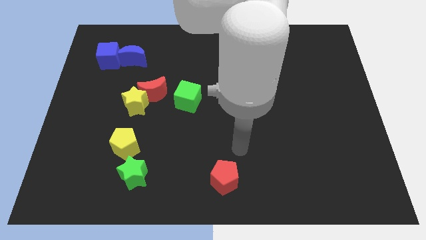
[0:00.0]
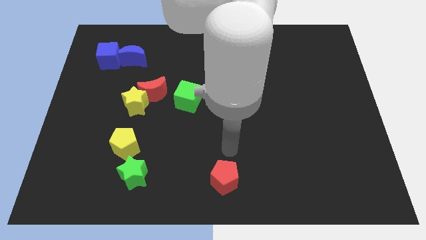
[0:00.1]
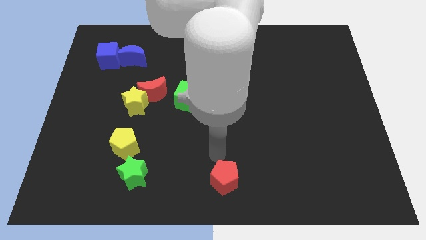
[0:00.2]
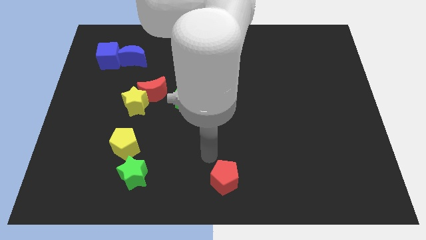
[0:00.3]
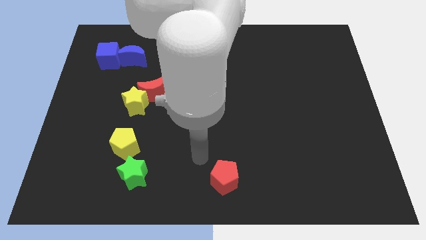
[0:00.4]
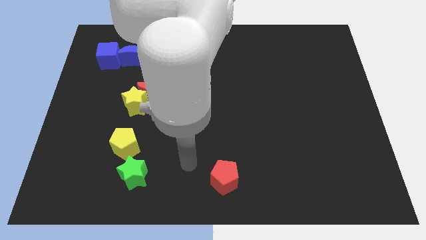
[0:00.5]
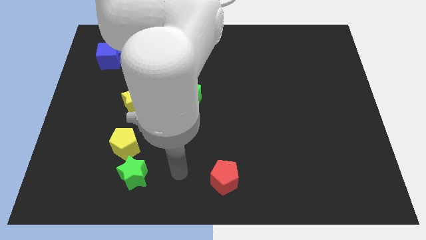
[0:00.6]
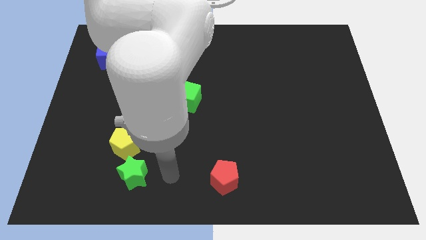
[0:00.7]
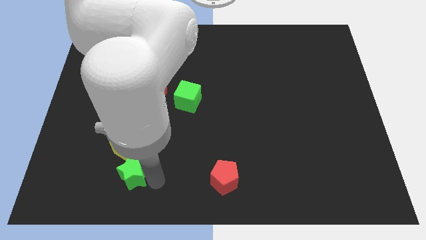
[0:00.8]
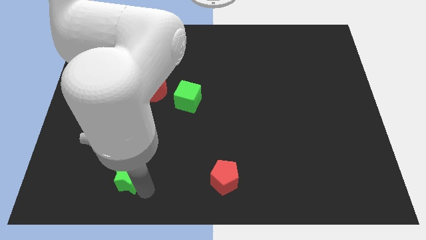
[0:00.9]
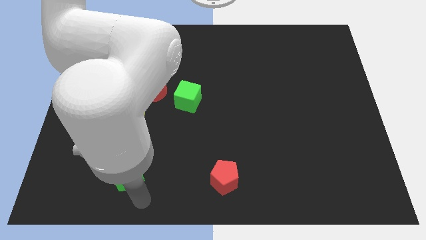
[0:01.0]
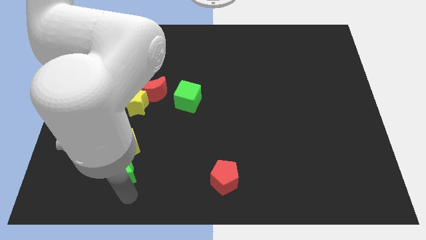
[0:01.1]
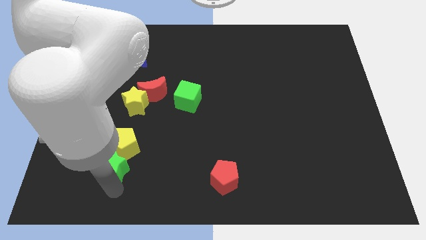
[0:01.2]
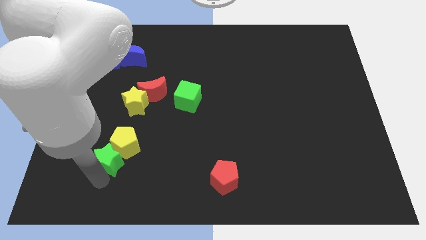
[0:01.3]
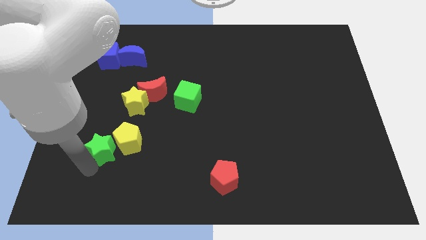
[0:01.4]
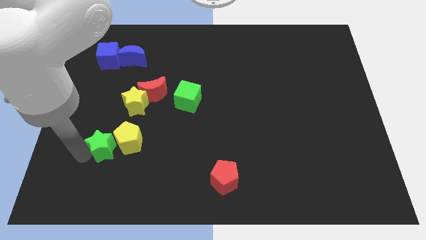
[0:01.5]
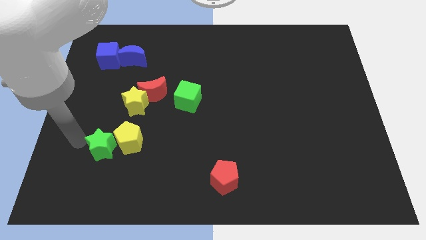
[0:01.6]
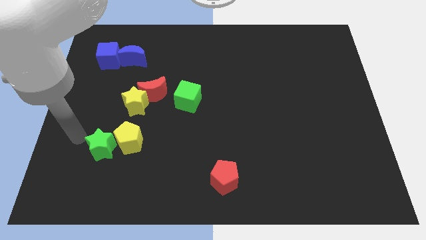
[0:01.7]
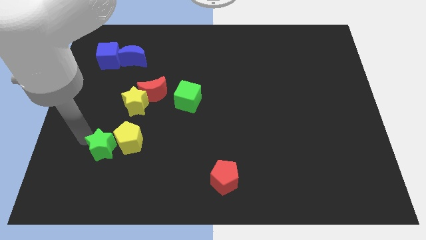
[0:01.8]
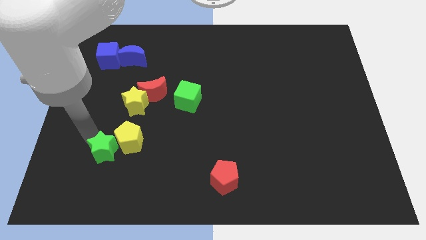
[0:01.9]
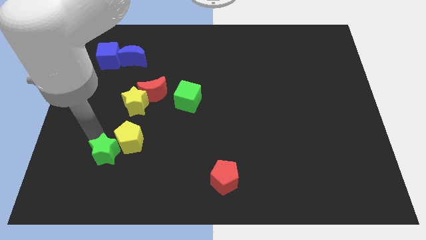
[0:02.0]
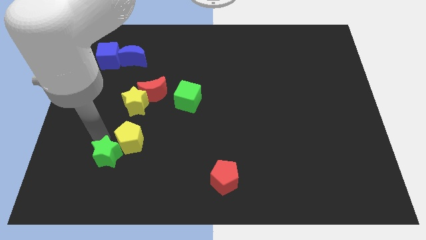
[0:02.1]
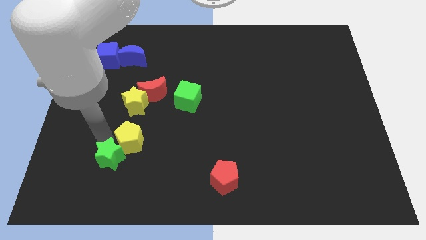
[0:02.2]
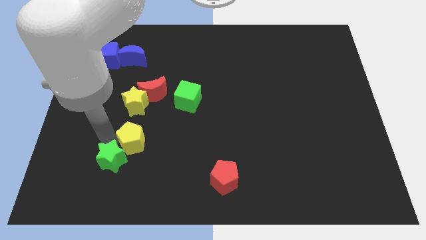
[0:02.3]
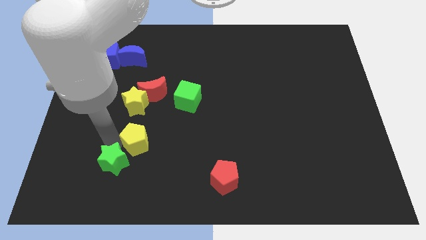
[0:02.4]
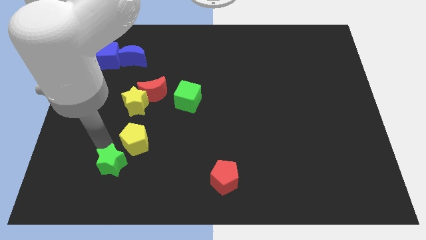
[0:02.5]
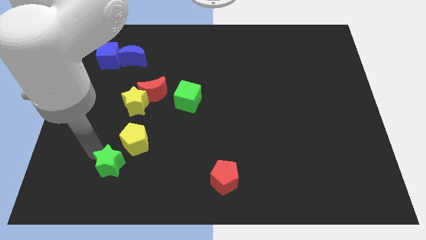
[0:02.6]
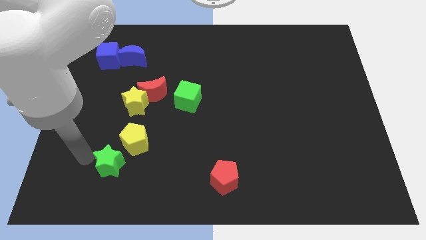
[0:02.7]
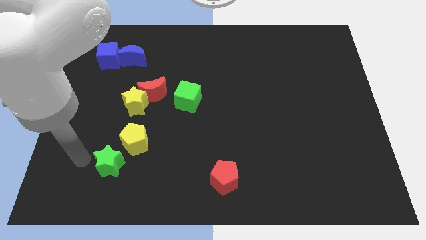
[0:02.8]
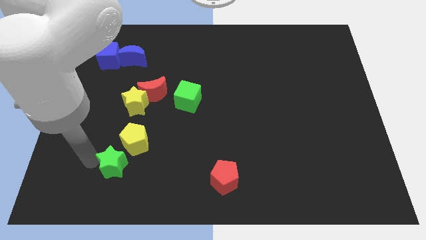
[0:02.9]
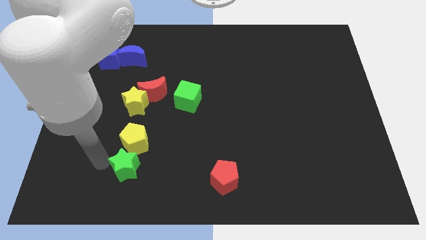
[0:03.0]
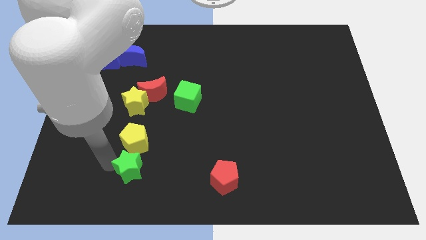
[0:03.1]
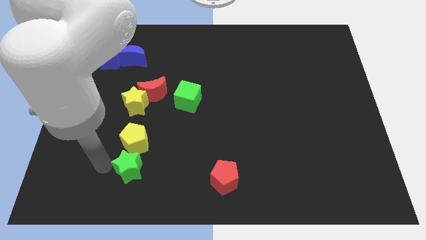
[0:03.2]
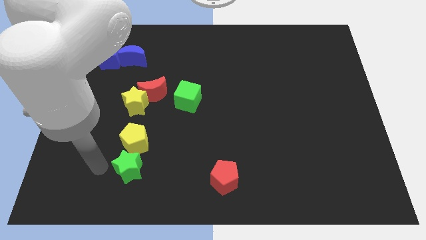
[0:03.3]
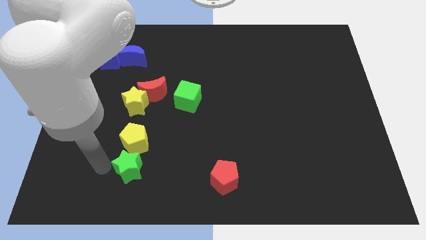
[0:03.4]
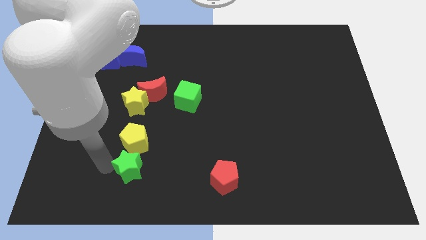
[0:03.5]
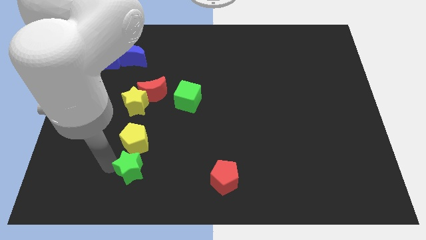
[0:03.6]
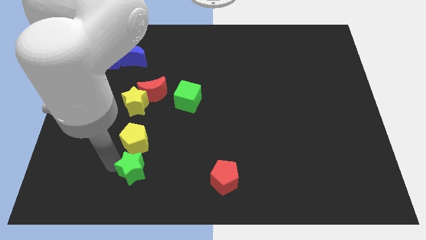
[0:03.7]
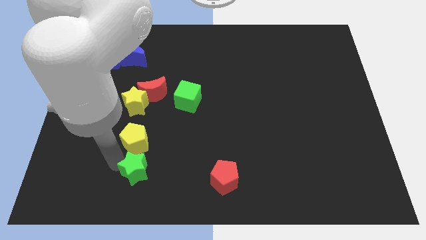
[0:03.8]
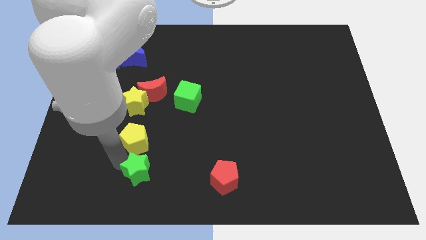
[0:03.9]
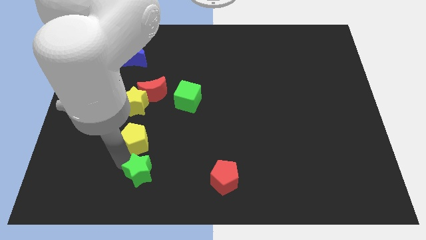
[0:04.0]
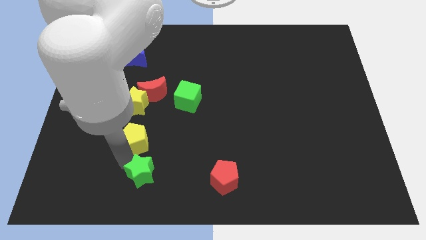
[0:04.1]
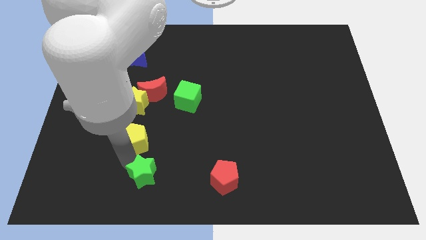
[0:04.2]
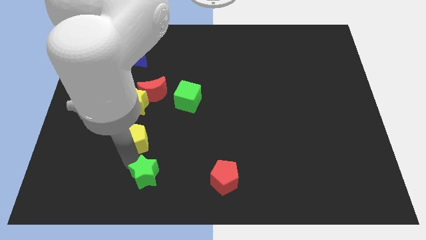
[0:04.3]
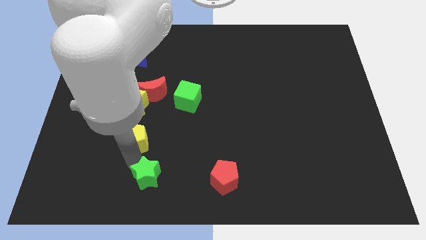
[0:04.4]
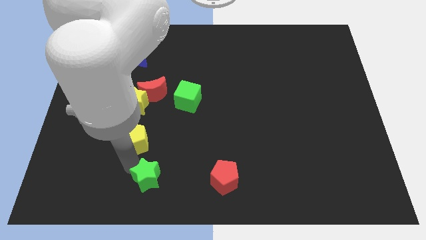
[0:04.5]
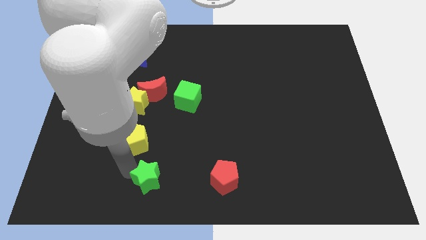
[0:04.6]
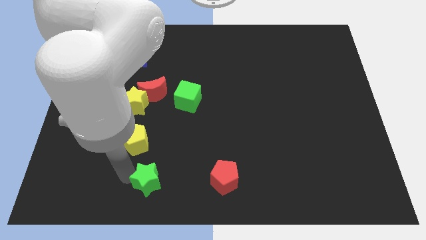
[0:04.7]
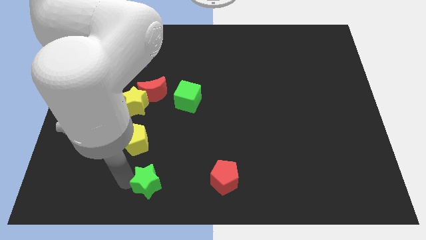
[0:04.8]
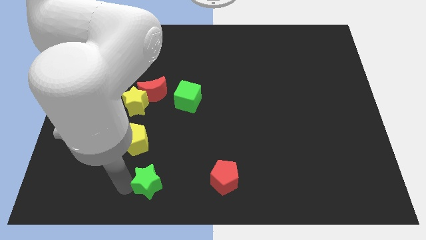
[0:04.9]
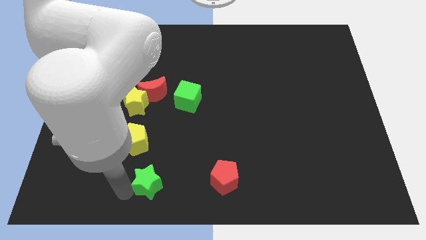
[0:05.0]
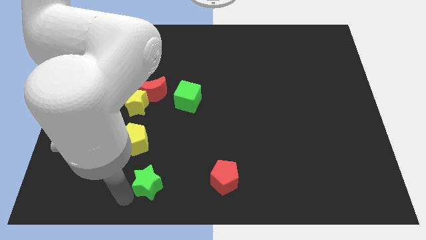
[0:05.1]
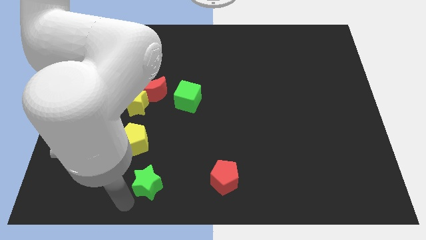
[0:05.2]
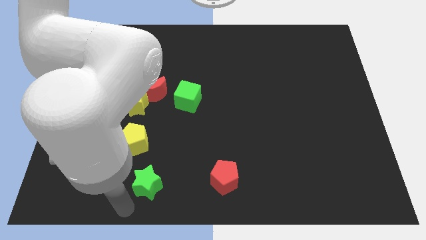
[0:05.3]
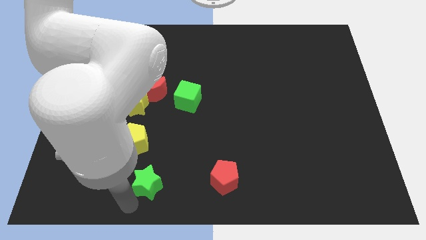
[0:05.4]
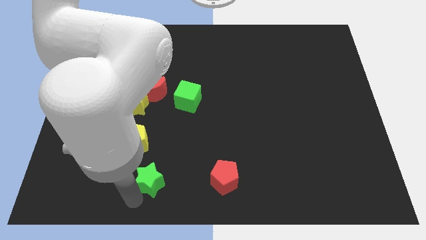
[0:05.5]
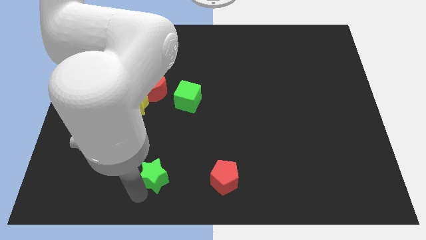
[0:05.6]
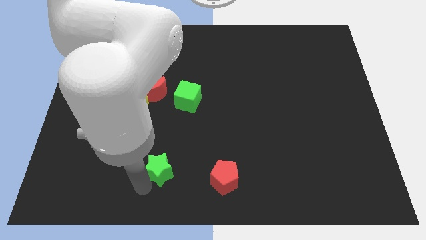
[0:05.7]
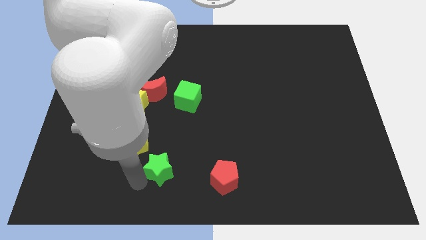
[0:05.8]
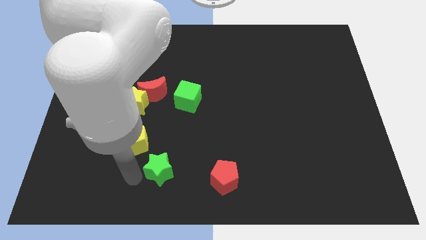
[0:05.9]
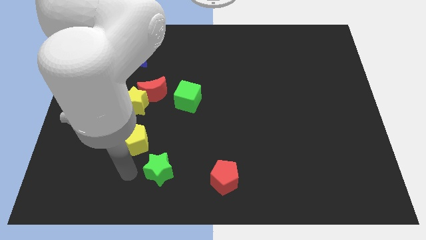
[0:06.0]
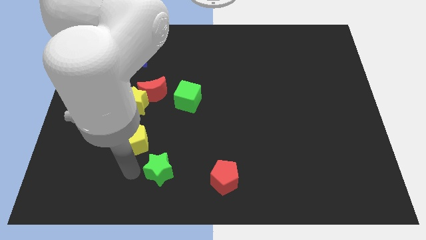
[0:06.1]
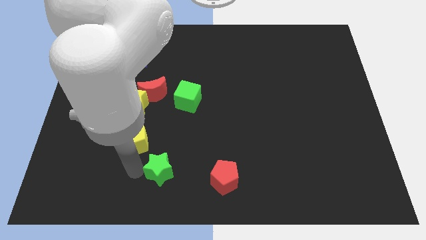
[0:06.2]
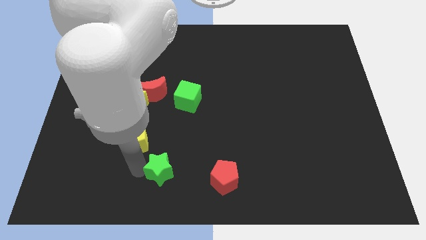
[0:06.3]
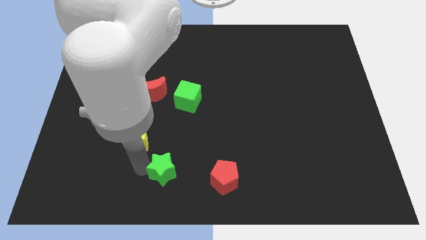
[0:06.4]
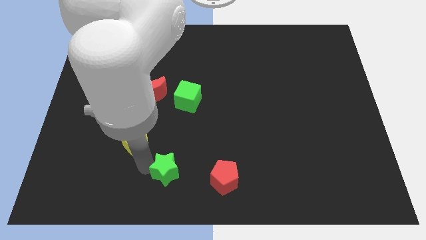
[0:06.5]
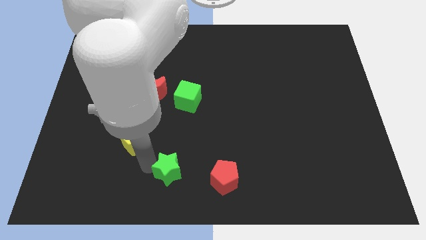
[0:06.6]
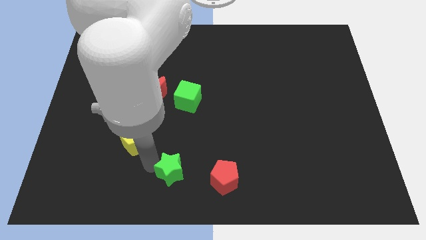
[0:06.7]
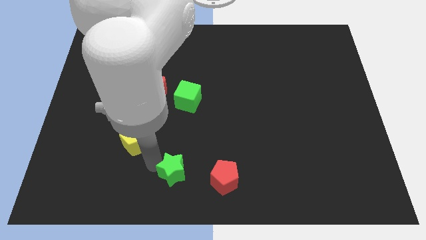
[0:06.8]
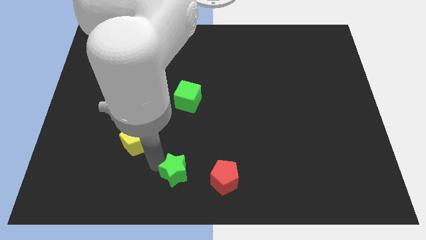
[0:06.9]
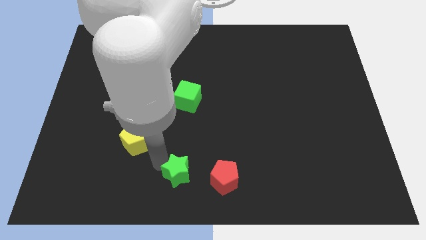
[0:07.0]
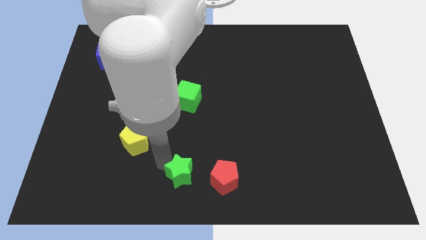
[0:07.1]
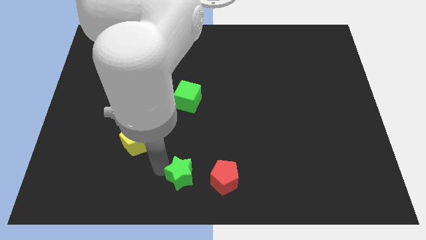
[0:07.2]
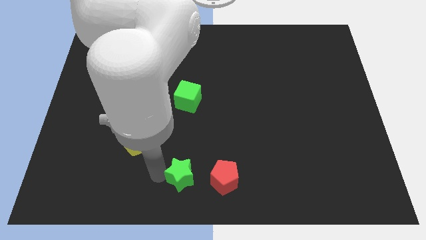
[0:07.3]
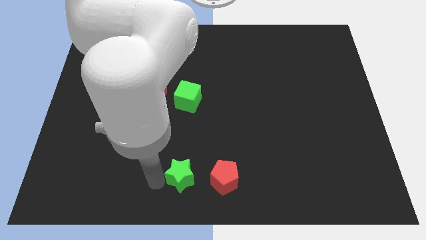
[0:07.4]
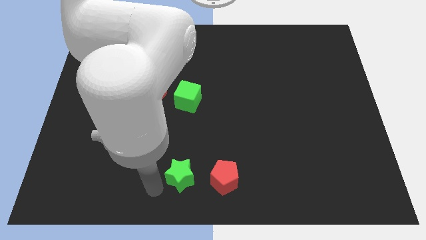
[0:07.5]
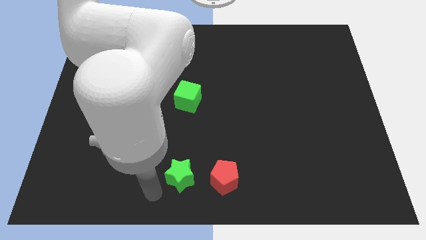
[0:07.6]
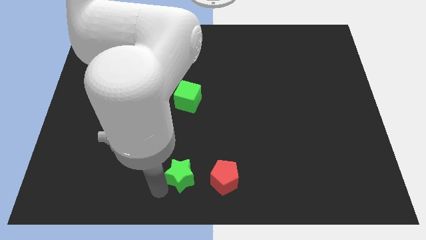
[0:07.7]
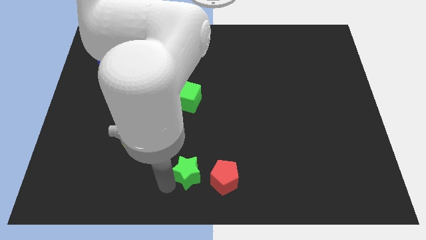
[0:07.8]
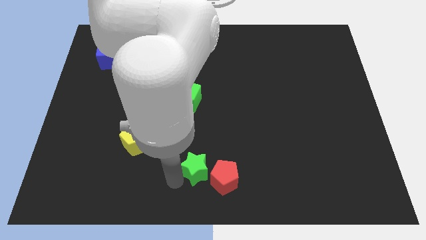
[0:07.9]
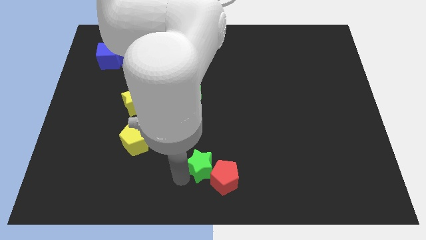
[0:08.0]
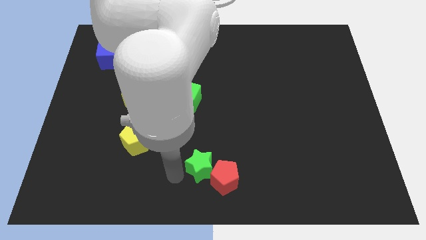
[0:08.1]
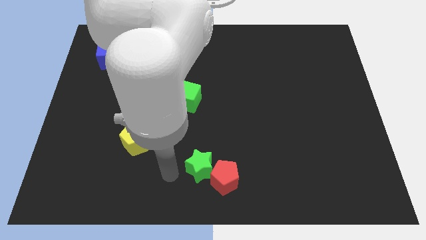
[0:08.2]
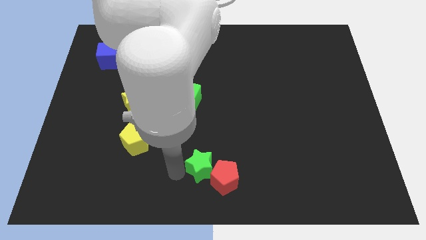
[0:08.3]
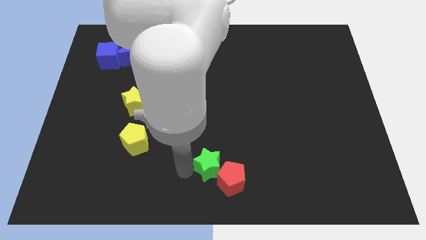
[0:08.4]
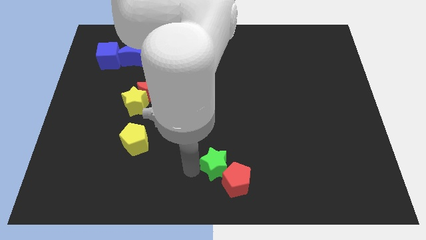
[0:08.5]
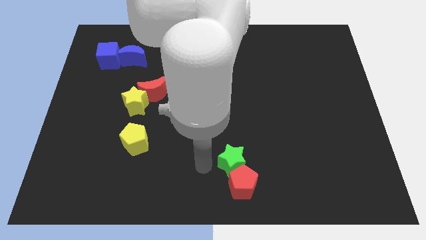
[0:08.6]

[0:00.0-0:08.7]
slide the green star to the right
